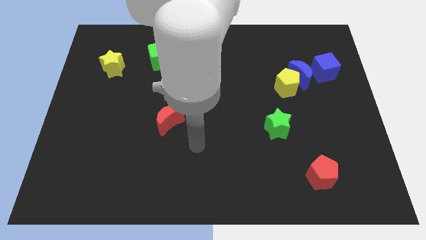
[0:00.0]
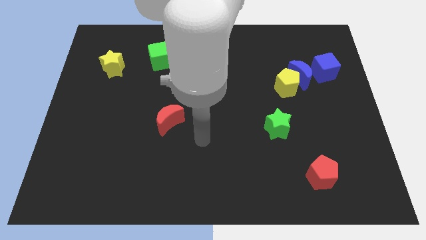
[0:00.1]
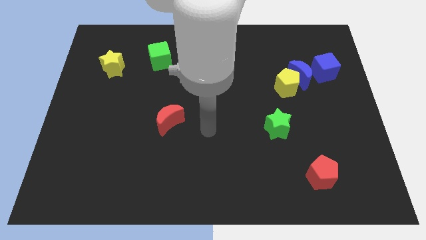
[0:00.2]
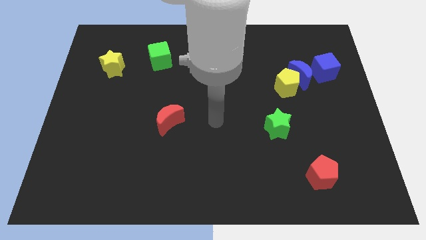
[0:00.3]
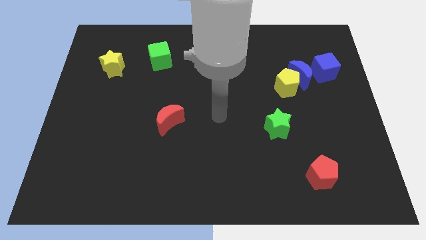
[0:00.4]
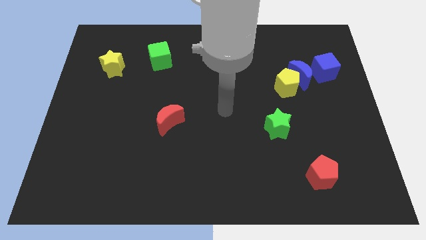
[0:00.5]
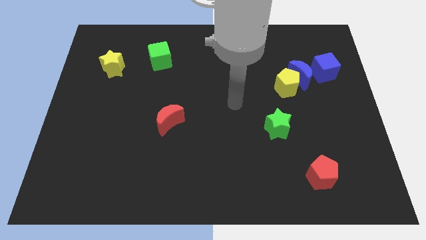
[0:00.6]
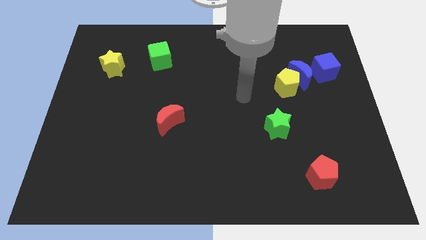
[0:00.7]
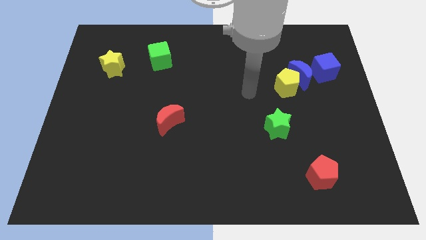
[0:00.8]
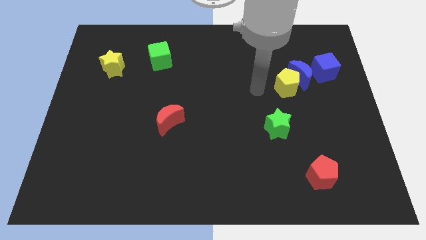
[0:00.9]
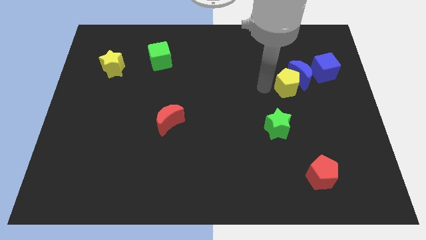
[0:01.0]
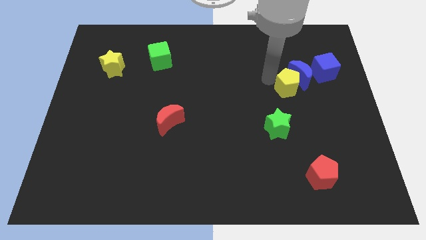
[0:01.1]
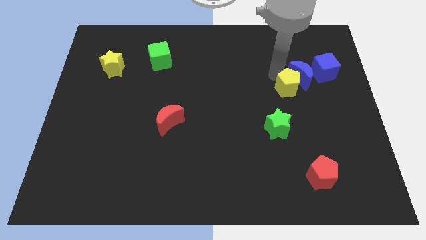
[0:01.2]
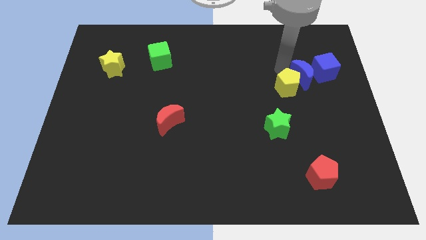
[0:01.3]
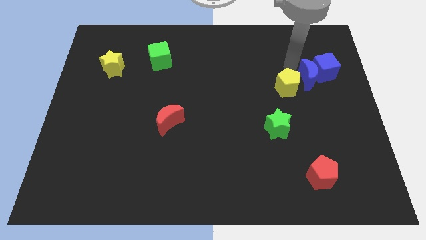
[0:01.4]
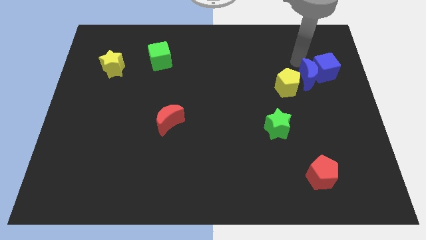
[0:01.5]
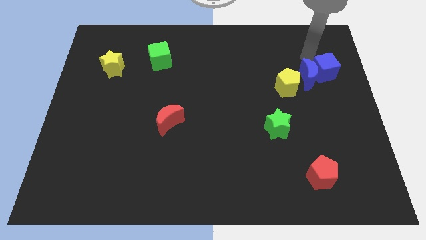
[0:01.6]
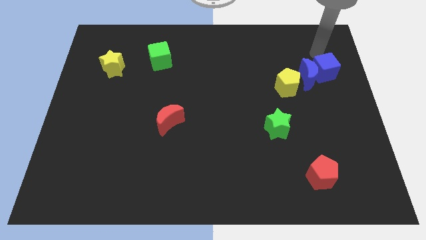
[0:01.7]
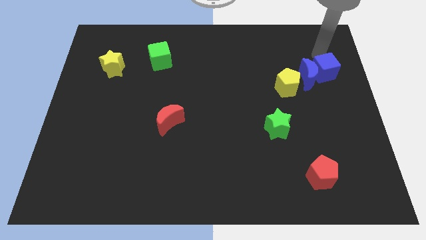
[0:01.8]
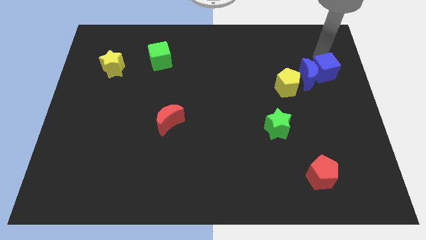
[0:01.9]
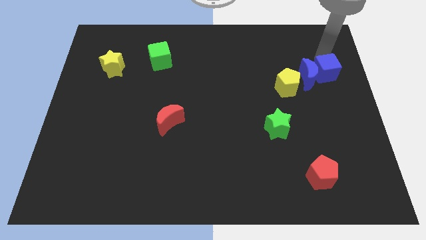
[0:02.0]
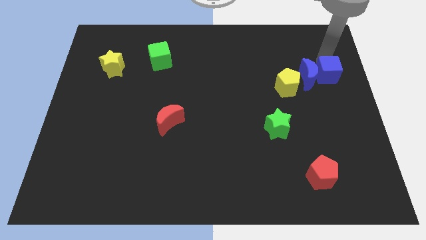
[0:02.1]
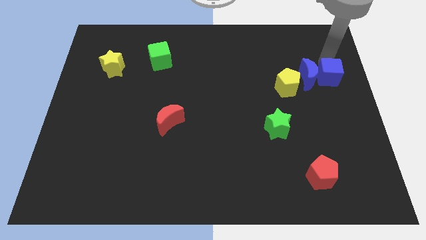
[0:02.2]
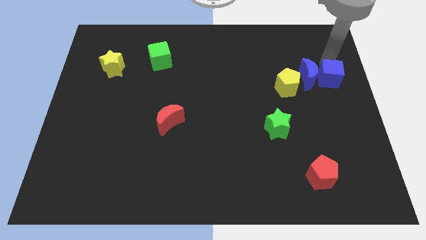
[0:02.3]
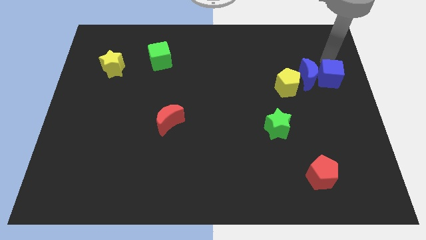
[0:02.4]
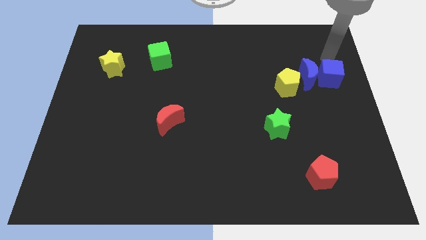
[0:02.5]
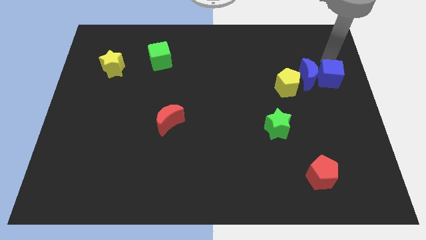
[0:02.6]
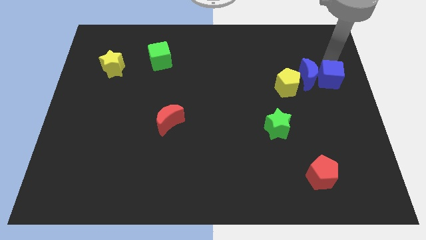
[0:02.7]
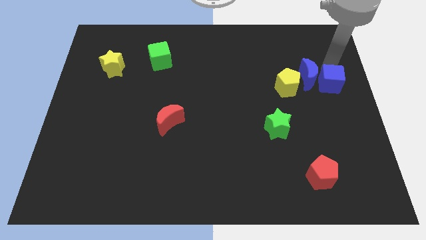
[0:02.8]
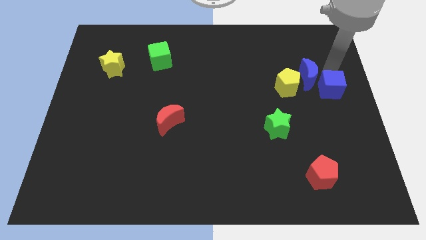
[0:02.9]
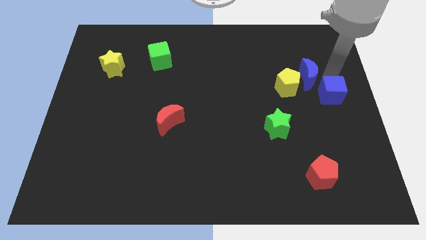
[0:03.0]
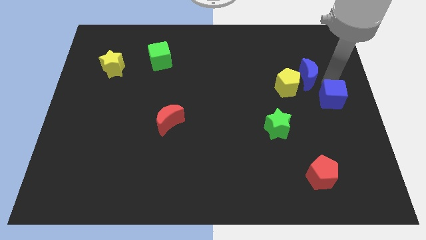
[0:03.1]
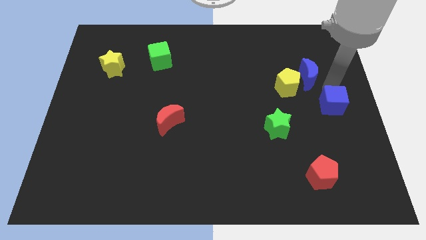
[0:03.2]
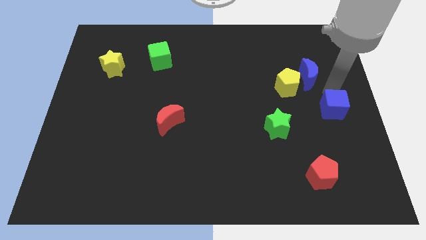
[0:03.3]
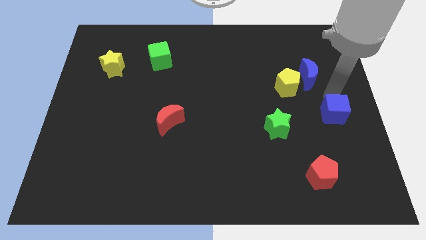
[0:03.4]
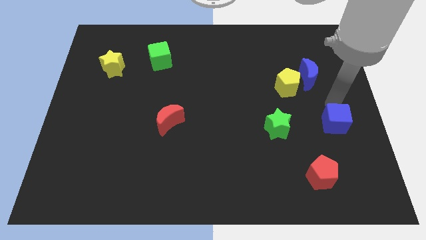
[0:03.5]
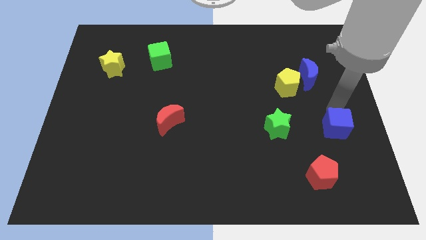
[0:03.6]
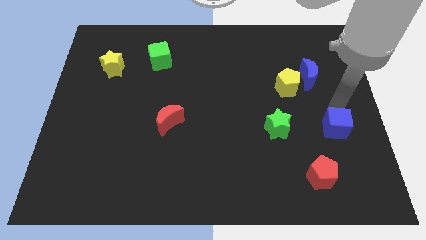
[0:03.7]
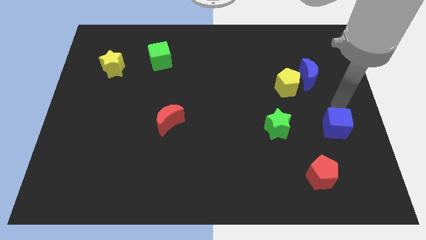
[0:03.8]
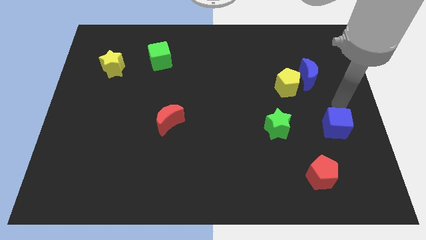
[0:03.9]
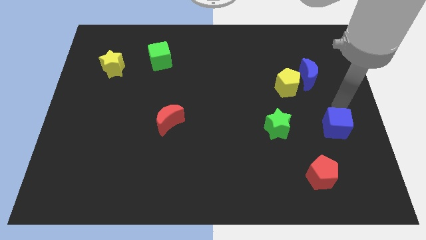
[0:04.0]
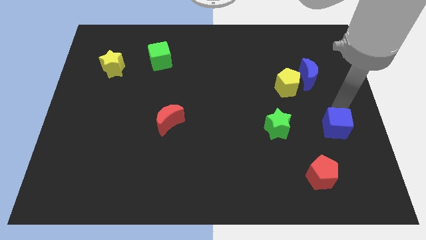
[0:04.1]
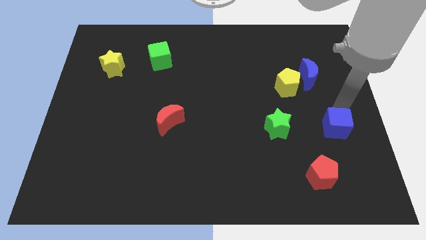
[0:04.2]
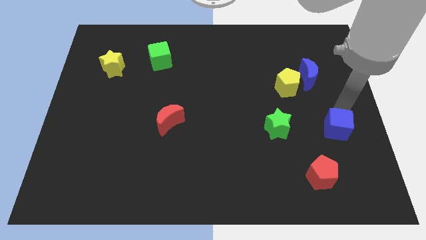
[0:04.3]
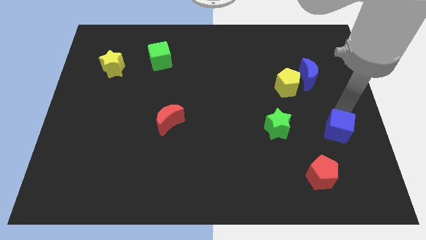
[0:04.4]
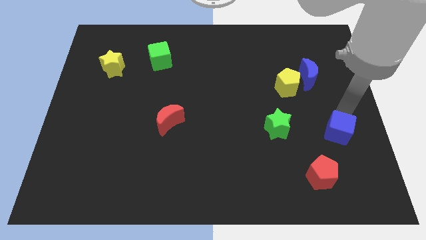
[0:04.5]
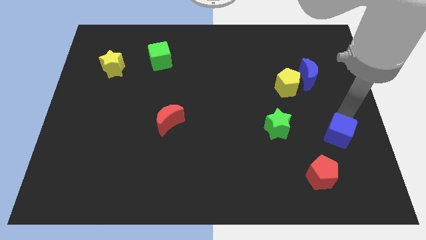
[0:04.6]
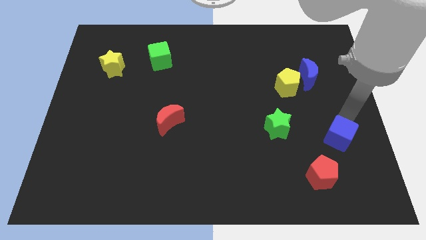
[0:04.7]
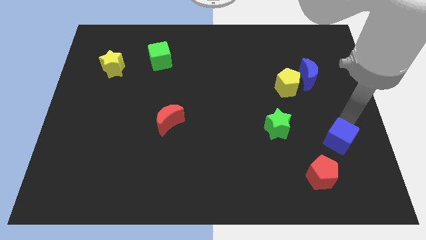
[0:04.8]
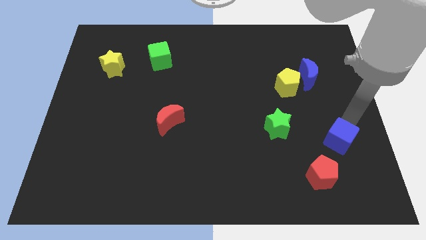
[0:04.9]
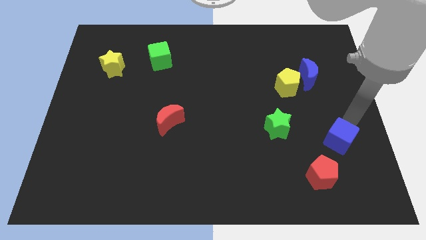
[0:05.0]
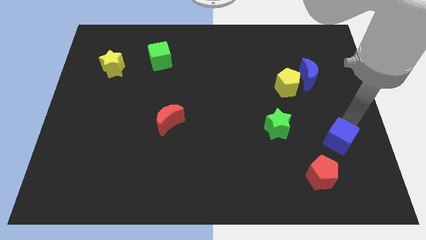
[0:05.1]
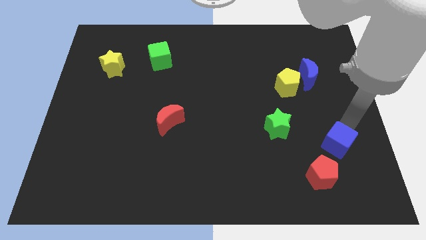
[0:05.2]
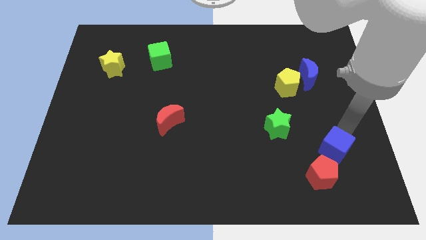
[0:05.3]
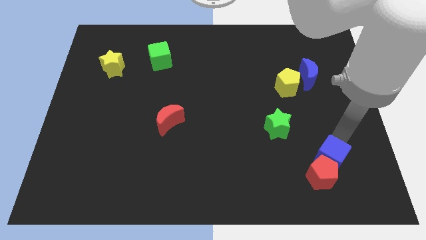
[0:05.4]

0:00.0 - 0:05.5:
put the blue cube next to the red pentagon

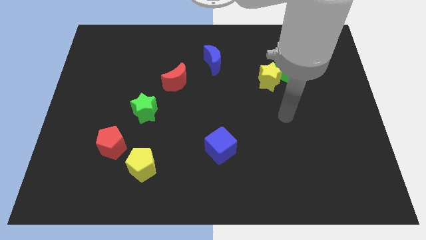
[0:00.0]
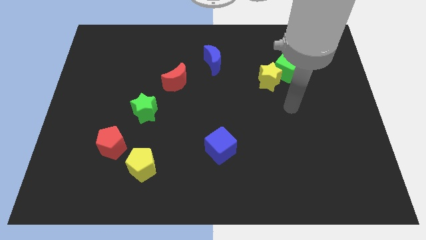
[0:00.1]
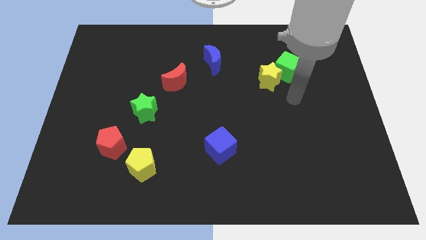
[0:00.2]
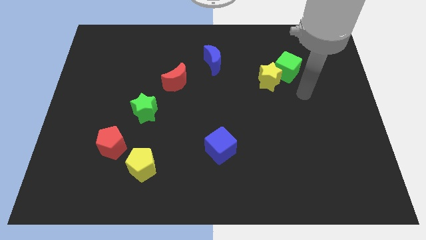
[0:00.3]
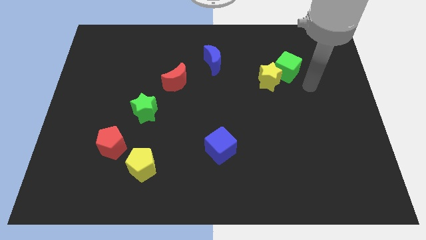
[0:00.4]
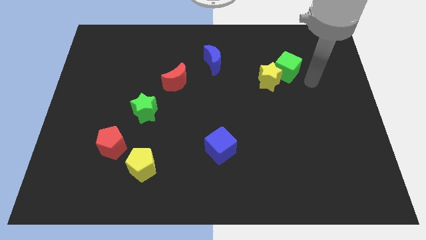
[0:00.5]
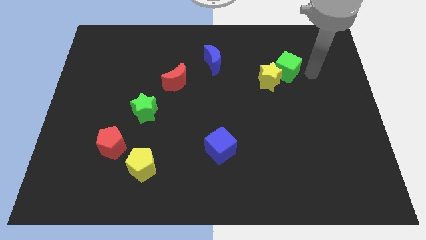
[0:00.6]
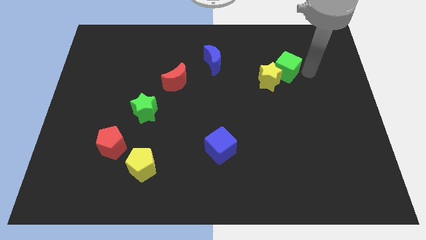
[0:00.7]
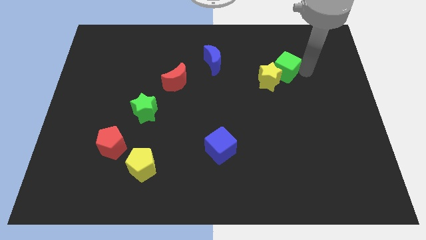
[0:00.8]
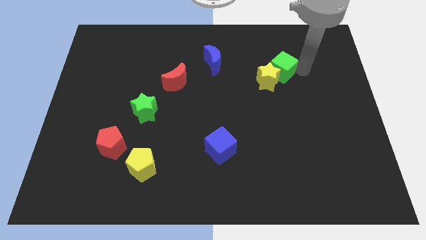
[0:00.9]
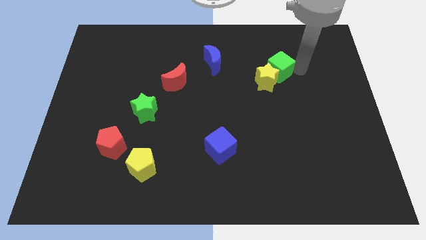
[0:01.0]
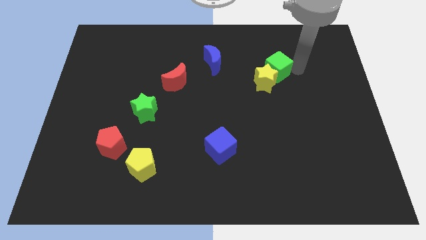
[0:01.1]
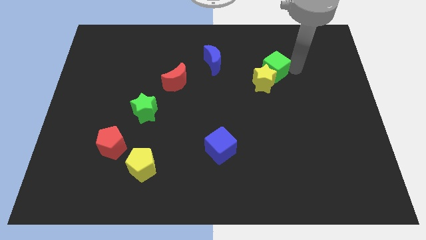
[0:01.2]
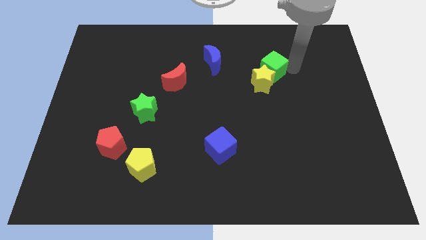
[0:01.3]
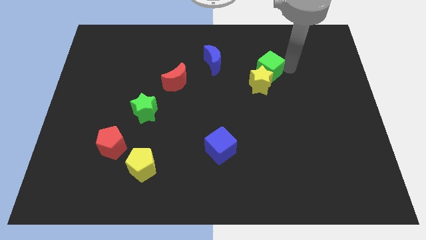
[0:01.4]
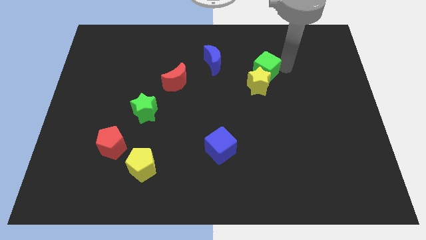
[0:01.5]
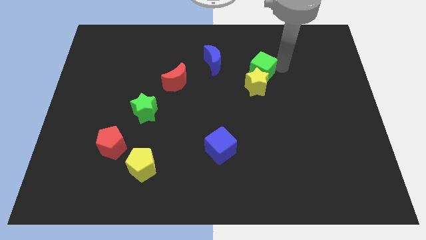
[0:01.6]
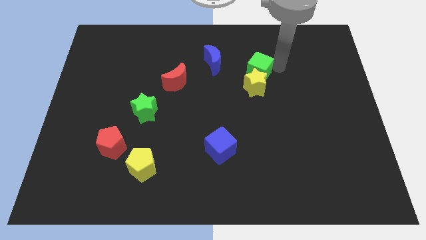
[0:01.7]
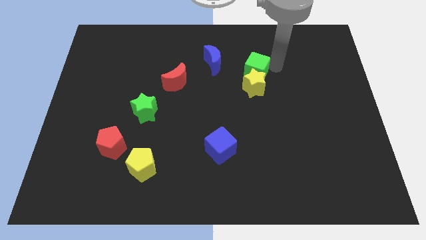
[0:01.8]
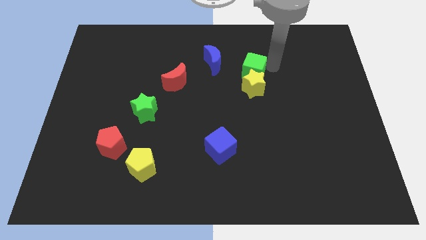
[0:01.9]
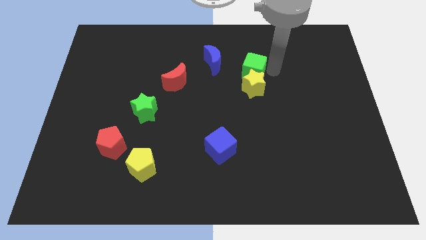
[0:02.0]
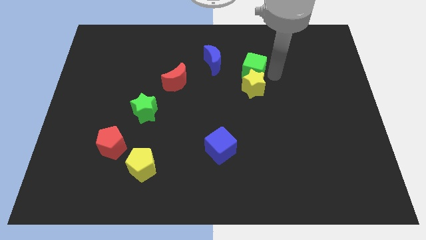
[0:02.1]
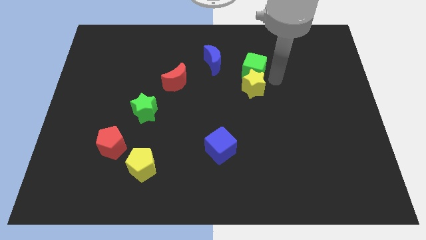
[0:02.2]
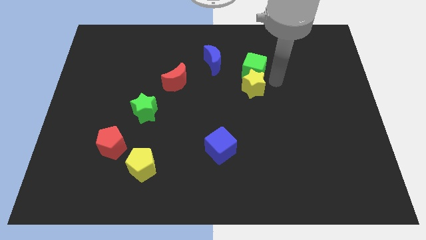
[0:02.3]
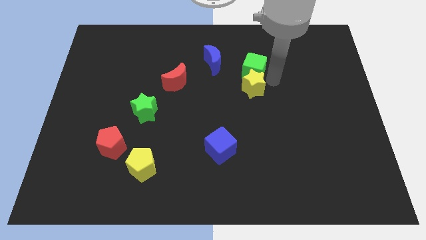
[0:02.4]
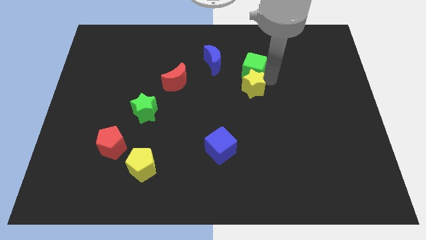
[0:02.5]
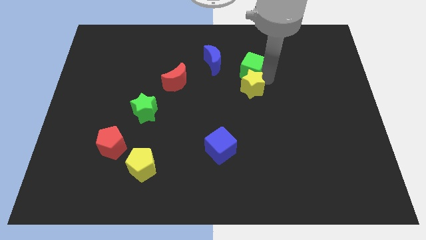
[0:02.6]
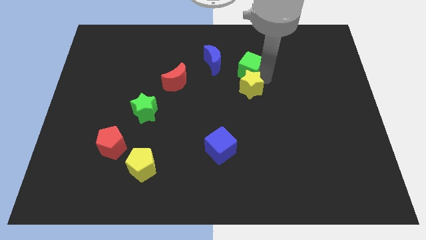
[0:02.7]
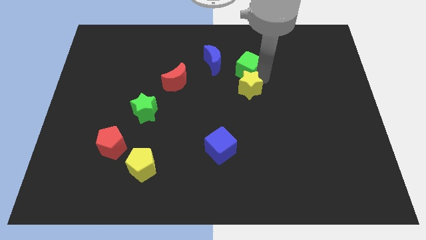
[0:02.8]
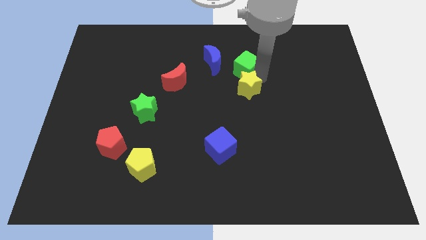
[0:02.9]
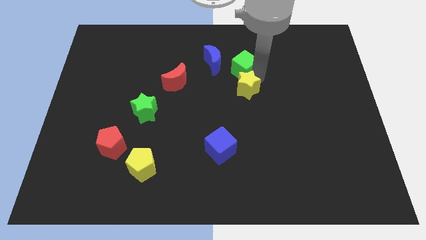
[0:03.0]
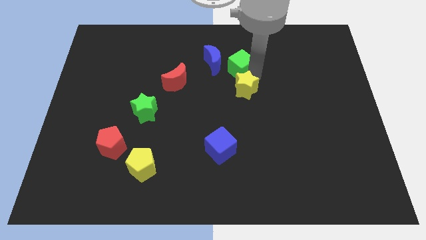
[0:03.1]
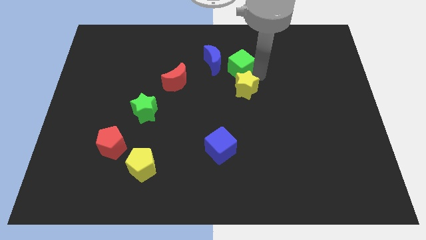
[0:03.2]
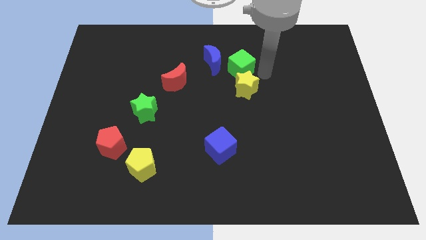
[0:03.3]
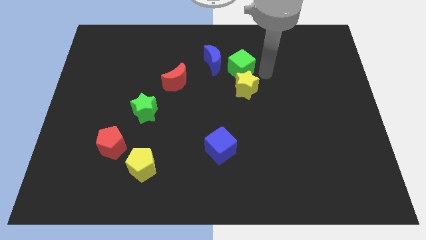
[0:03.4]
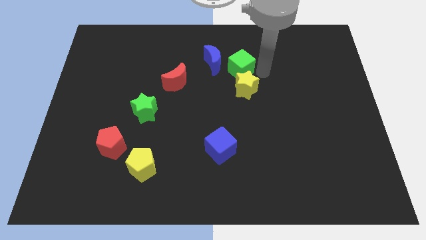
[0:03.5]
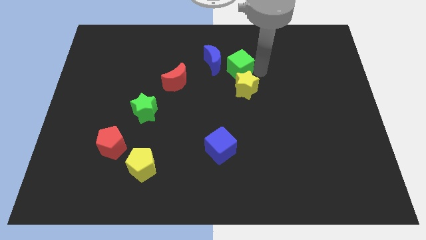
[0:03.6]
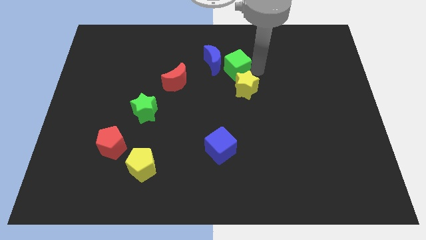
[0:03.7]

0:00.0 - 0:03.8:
put the green cube next to the blue moon
